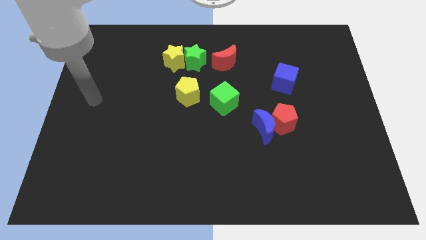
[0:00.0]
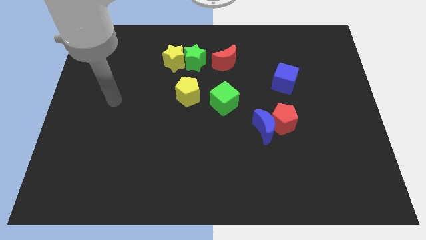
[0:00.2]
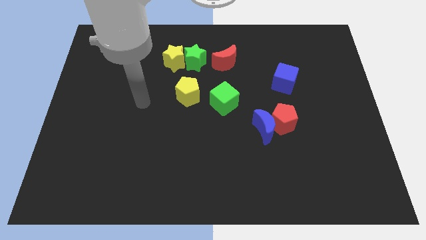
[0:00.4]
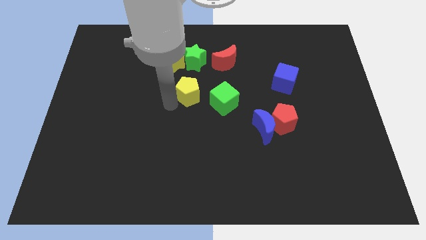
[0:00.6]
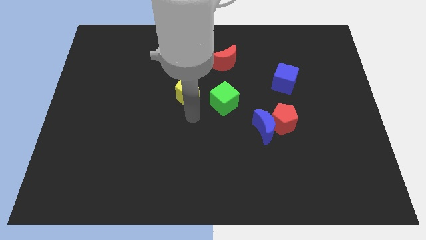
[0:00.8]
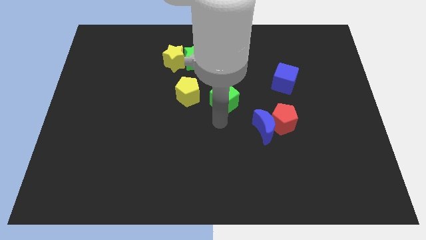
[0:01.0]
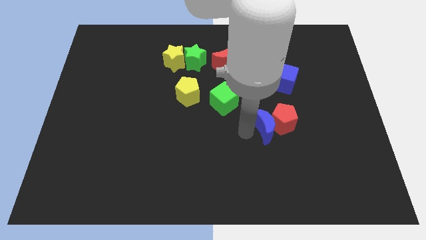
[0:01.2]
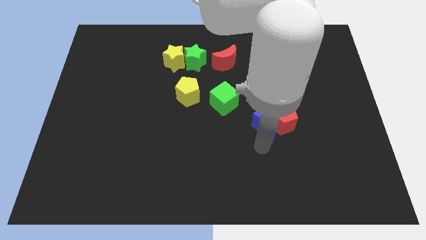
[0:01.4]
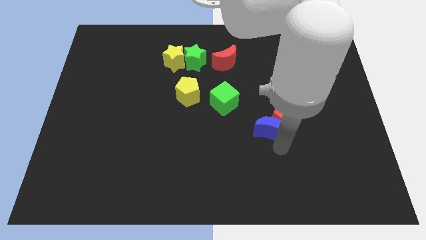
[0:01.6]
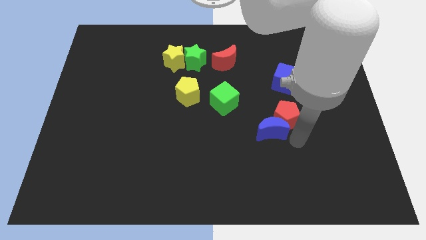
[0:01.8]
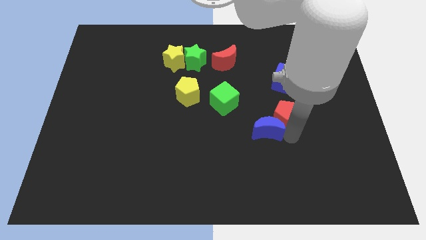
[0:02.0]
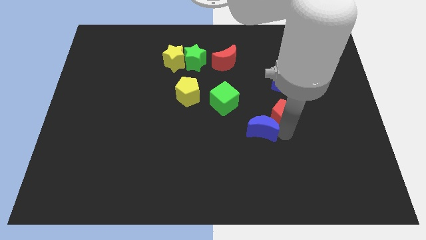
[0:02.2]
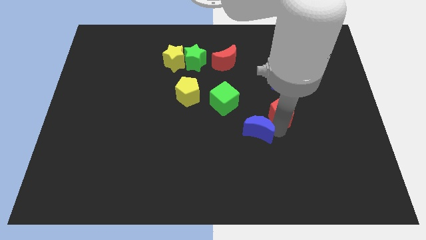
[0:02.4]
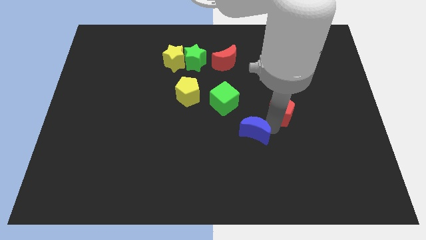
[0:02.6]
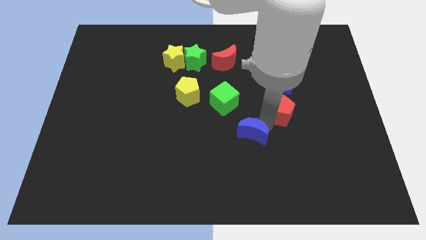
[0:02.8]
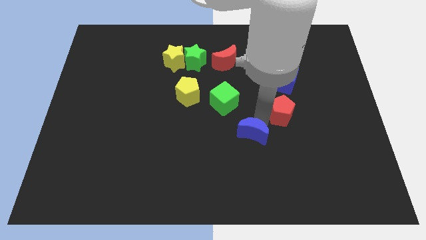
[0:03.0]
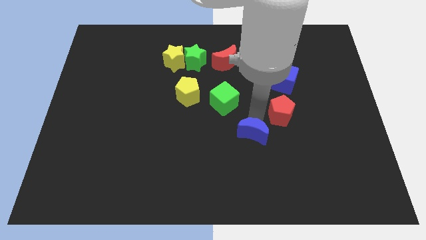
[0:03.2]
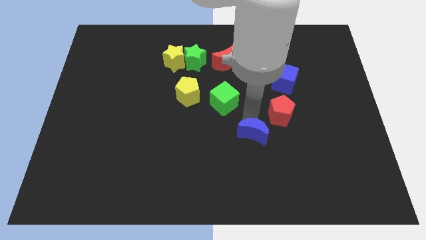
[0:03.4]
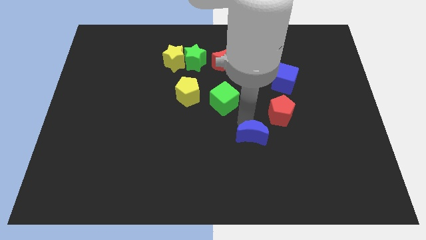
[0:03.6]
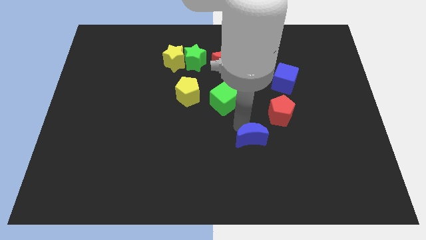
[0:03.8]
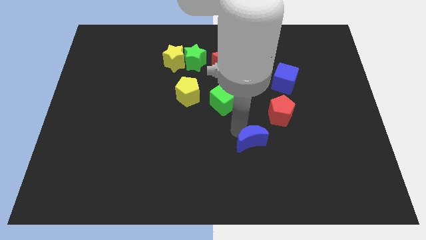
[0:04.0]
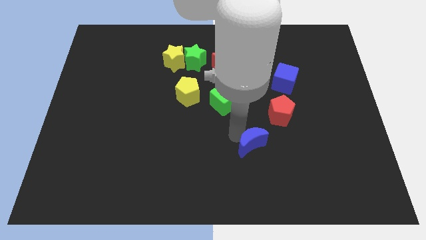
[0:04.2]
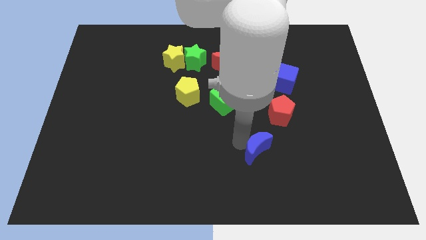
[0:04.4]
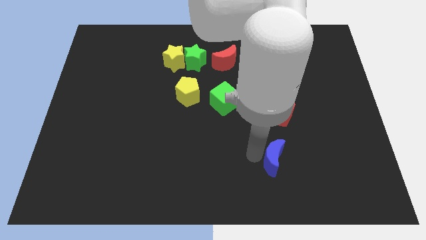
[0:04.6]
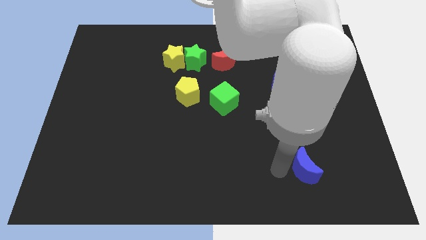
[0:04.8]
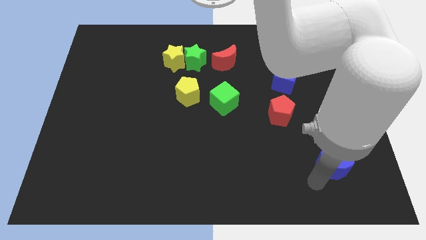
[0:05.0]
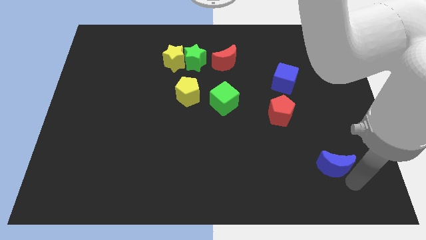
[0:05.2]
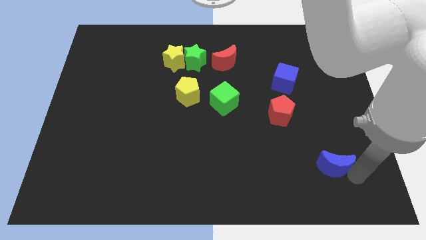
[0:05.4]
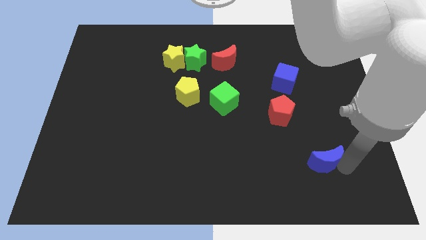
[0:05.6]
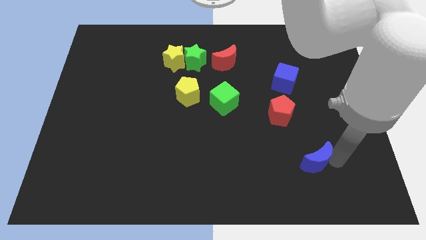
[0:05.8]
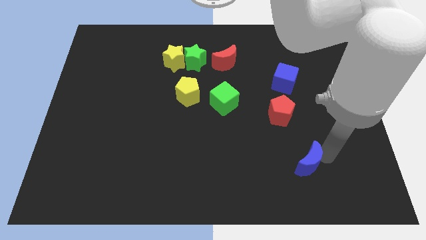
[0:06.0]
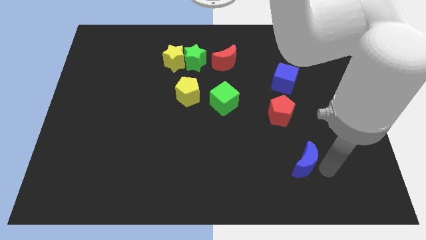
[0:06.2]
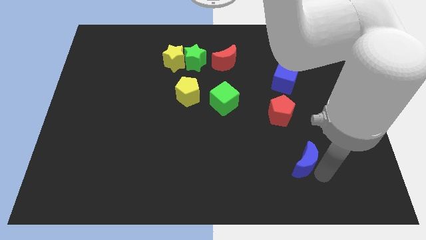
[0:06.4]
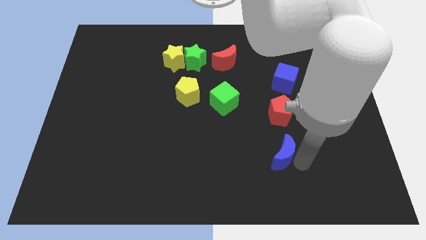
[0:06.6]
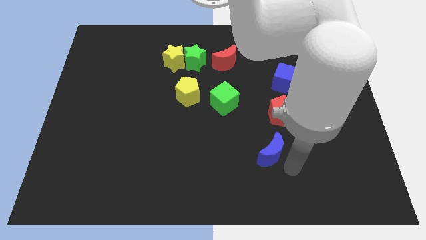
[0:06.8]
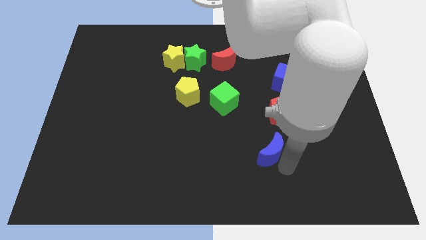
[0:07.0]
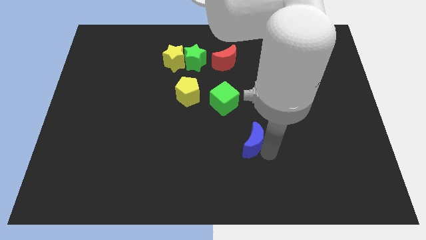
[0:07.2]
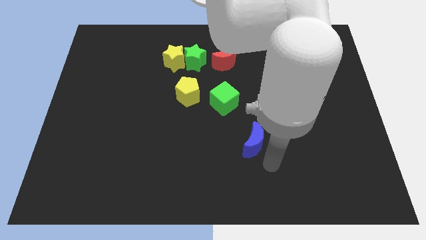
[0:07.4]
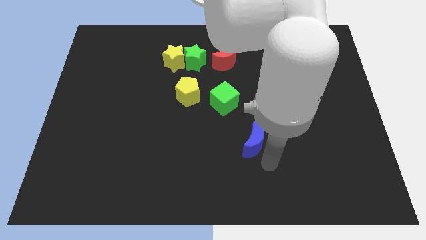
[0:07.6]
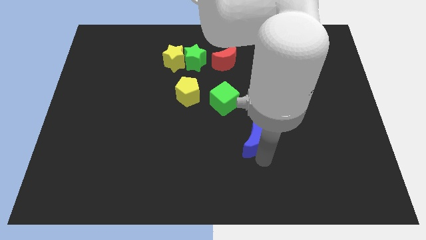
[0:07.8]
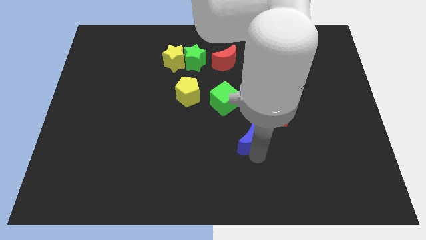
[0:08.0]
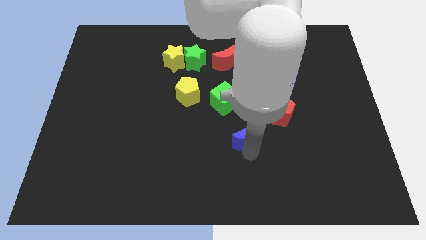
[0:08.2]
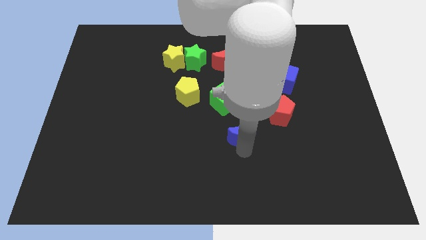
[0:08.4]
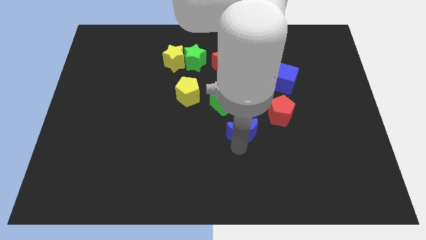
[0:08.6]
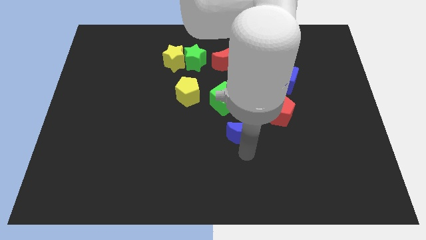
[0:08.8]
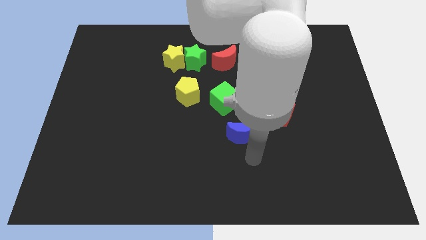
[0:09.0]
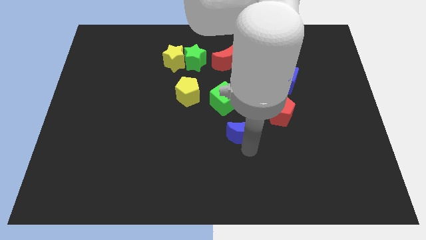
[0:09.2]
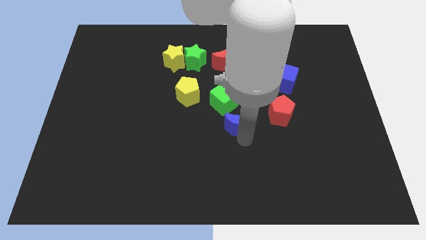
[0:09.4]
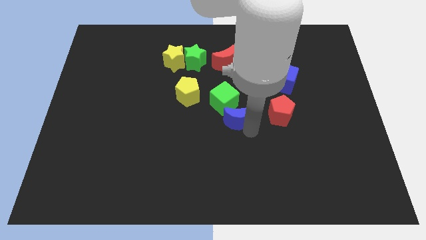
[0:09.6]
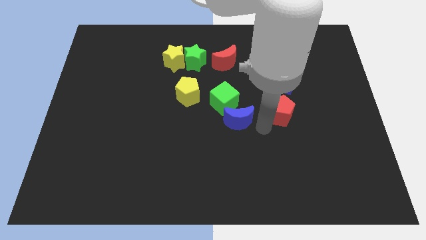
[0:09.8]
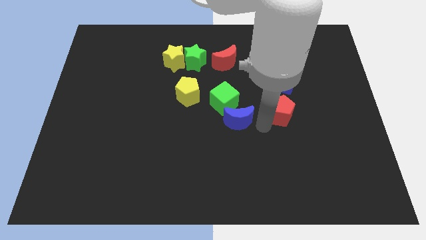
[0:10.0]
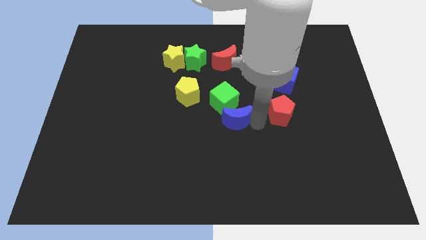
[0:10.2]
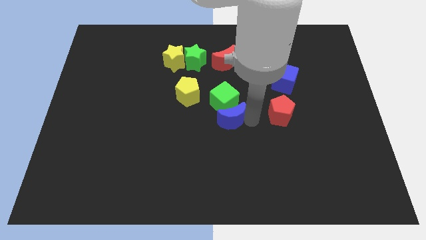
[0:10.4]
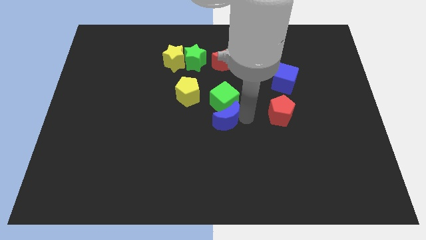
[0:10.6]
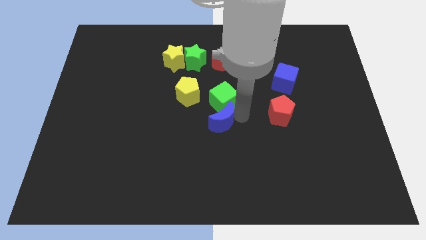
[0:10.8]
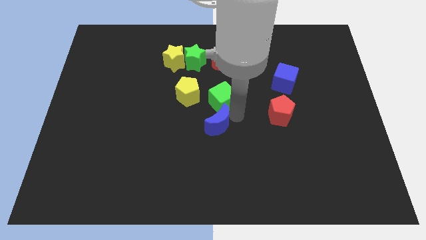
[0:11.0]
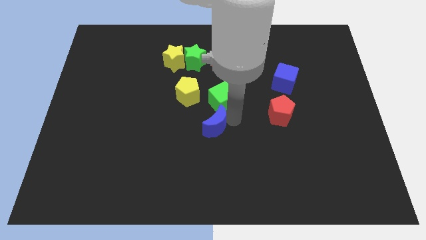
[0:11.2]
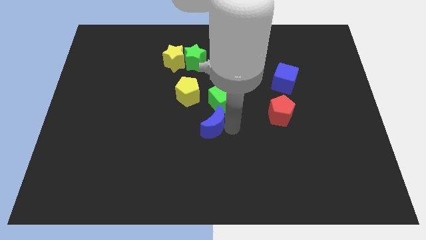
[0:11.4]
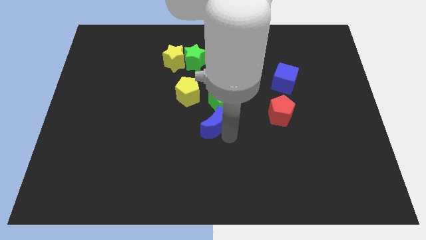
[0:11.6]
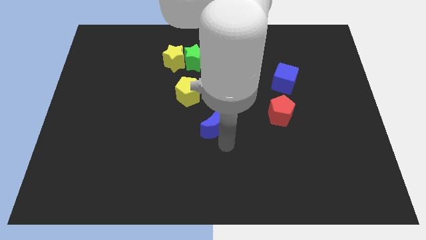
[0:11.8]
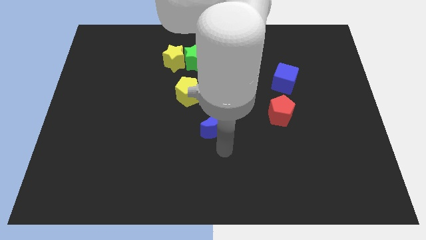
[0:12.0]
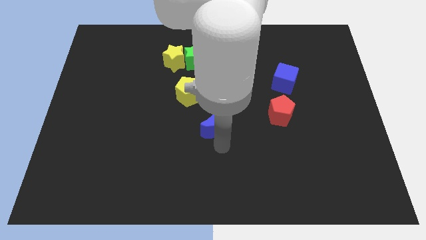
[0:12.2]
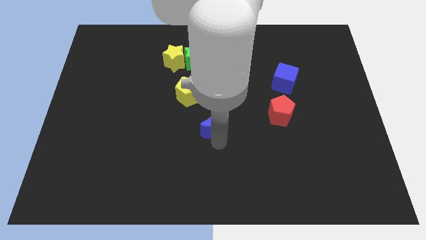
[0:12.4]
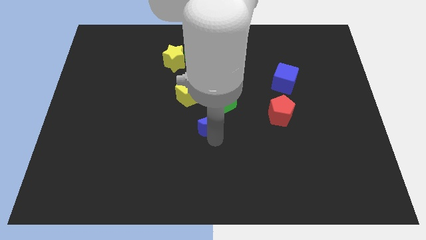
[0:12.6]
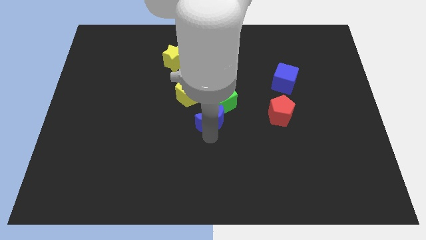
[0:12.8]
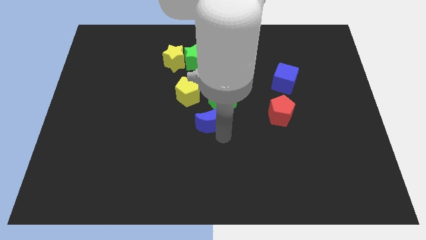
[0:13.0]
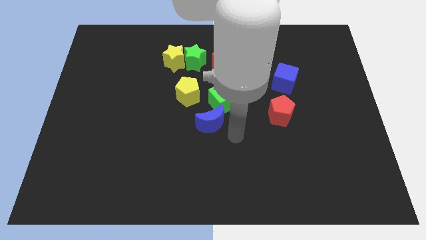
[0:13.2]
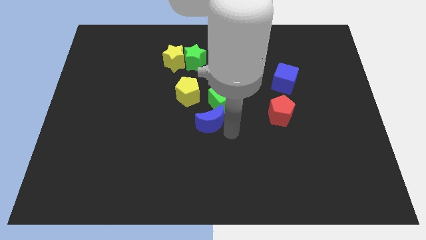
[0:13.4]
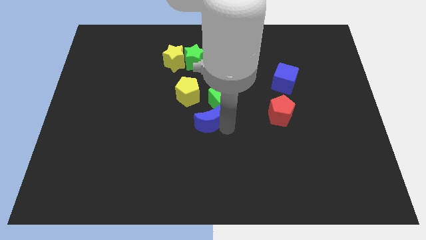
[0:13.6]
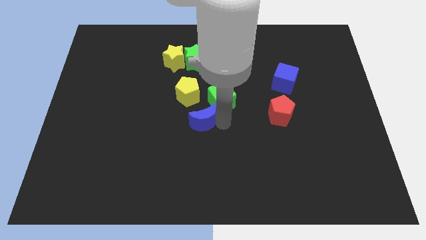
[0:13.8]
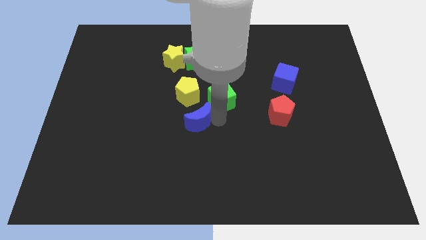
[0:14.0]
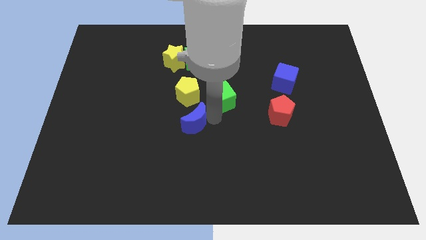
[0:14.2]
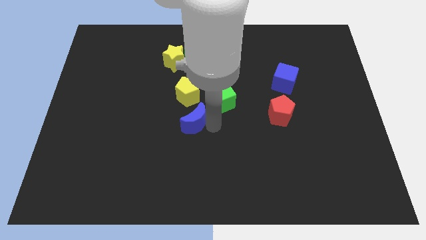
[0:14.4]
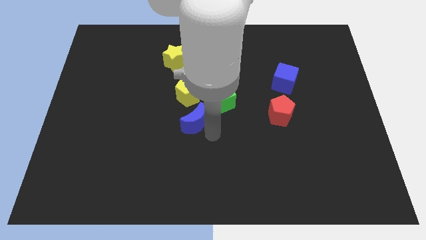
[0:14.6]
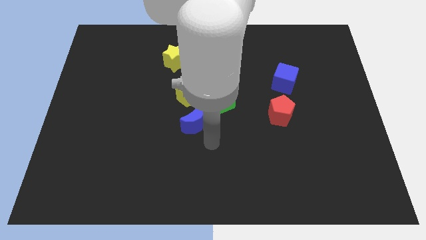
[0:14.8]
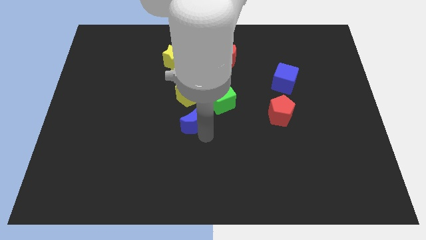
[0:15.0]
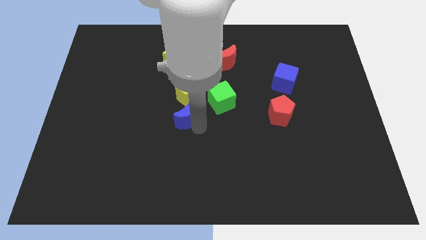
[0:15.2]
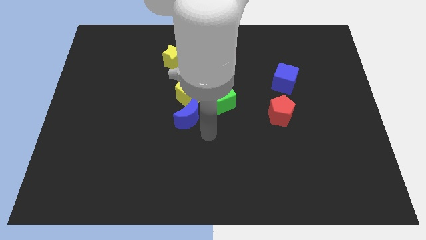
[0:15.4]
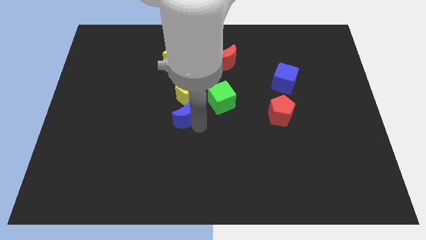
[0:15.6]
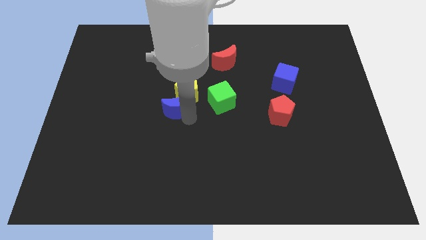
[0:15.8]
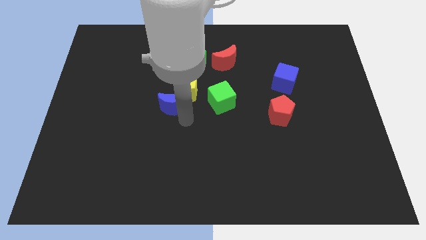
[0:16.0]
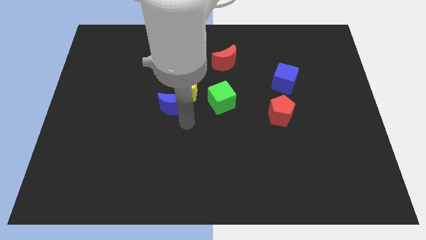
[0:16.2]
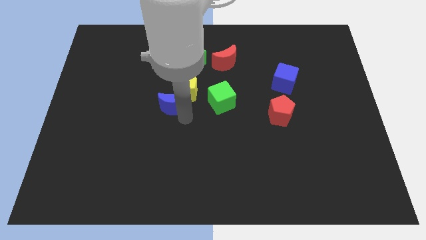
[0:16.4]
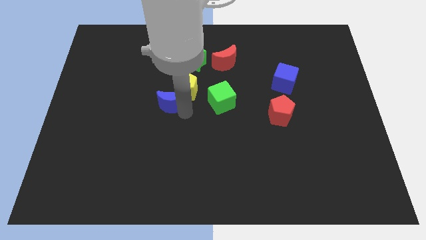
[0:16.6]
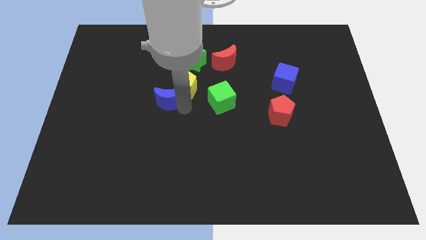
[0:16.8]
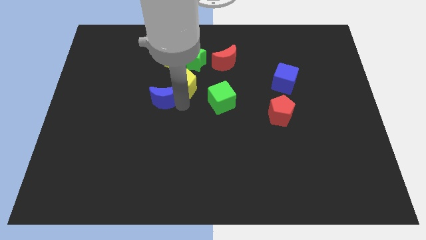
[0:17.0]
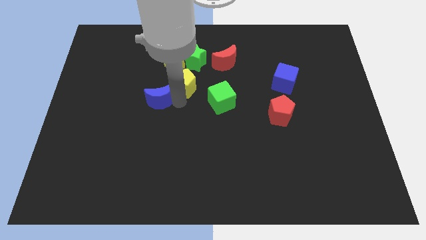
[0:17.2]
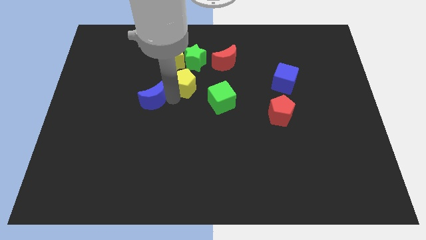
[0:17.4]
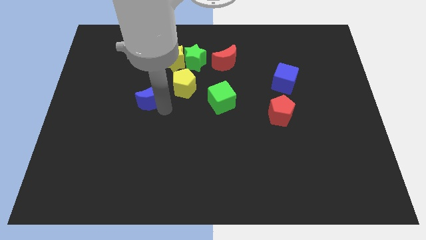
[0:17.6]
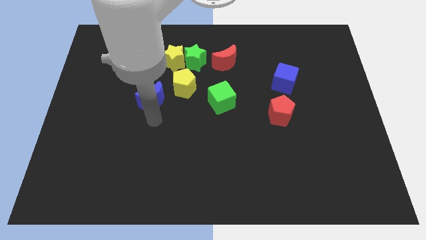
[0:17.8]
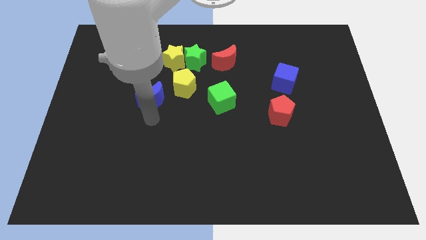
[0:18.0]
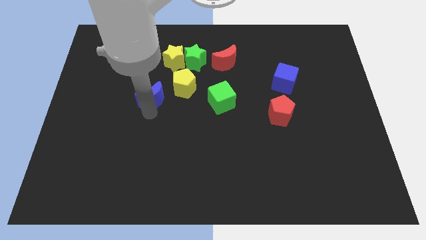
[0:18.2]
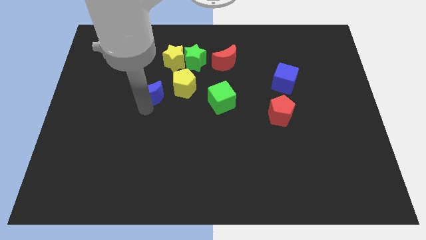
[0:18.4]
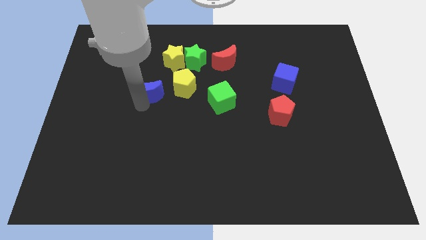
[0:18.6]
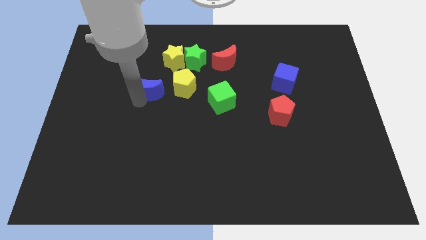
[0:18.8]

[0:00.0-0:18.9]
slide the blue moon to the bottom left of the yellow star
